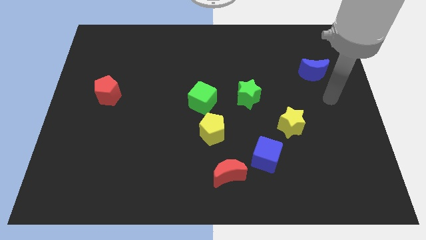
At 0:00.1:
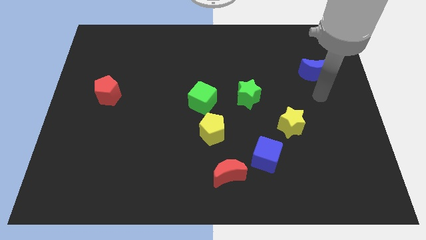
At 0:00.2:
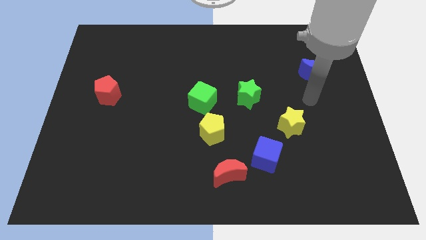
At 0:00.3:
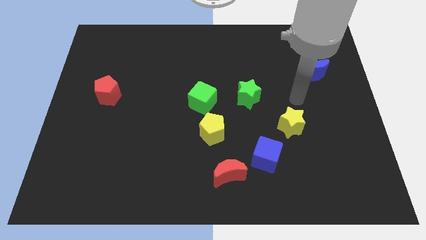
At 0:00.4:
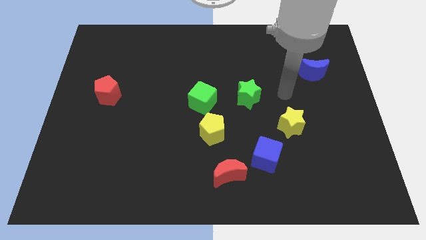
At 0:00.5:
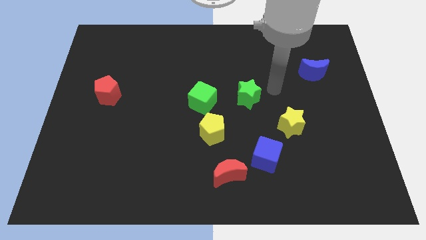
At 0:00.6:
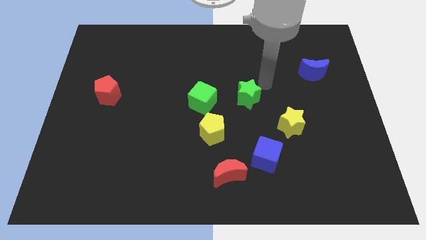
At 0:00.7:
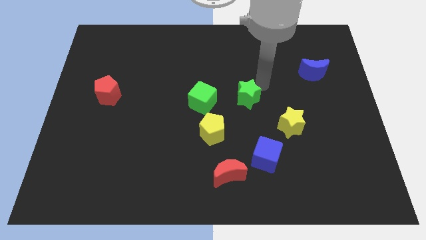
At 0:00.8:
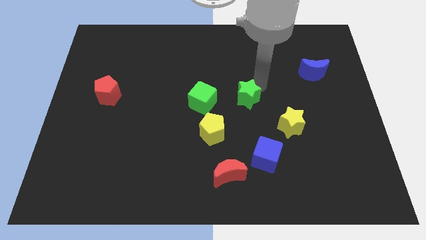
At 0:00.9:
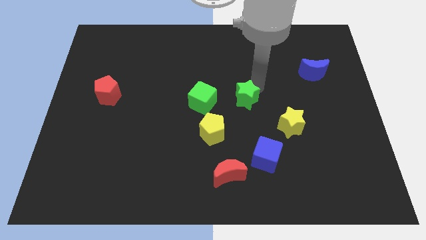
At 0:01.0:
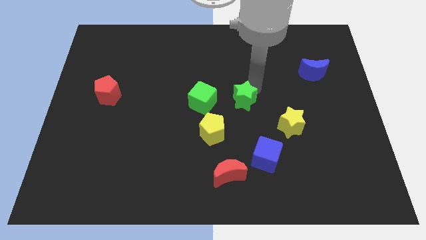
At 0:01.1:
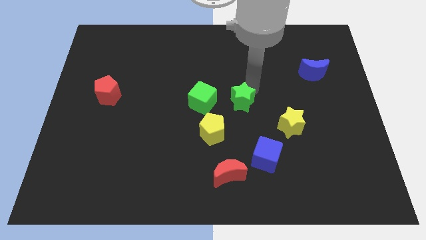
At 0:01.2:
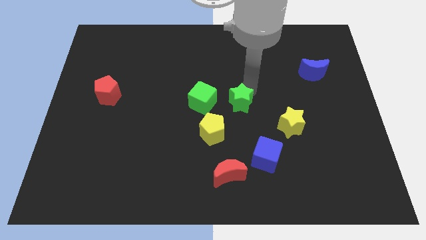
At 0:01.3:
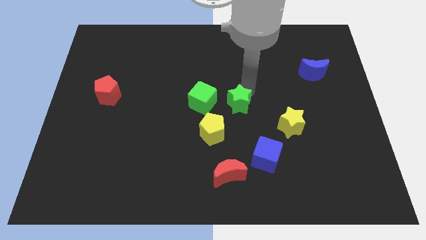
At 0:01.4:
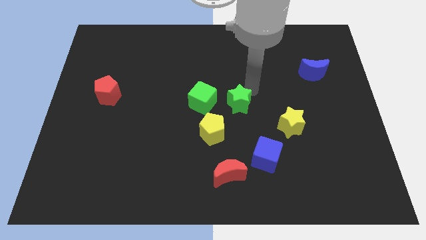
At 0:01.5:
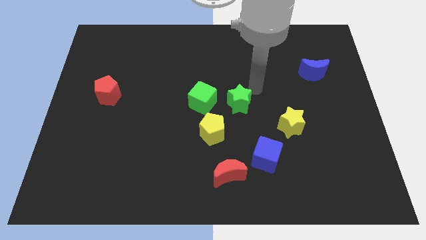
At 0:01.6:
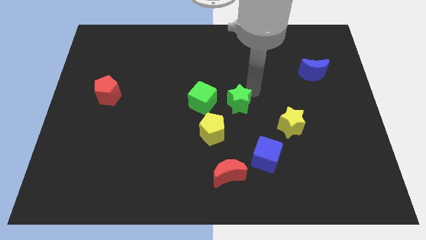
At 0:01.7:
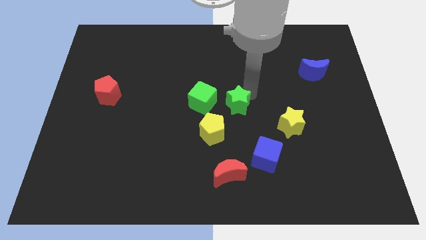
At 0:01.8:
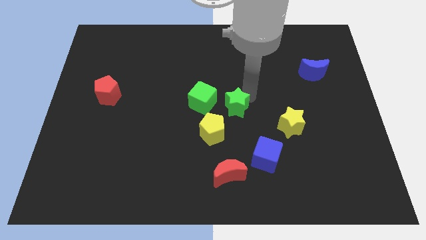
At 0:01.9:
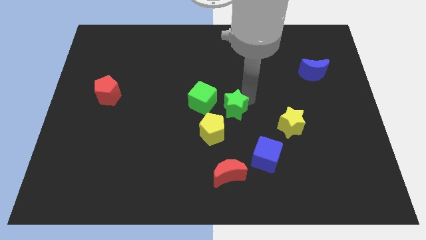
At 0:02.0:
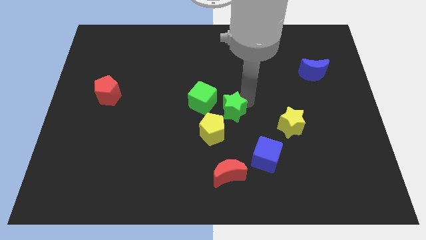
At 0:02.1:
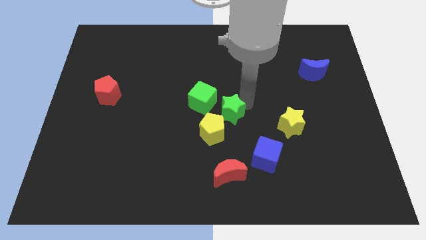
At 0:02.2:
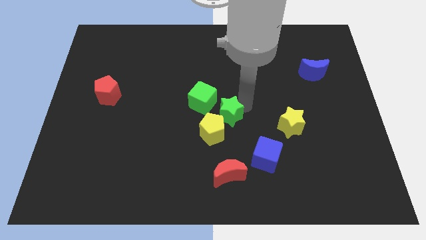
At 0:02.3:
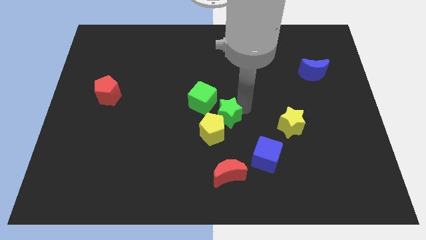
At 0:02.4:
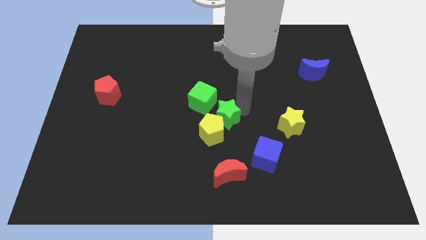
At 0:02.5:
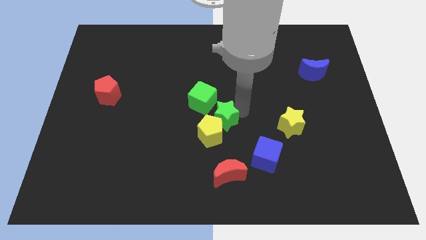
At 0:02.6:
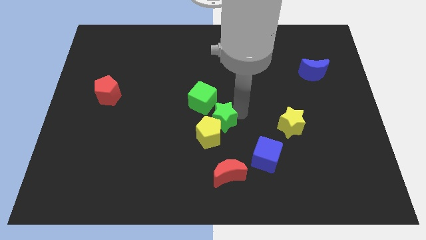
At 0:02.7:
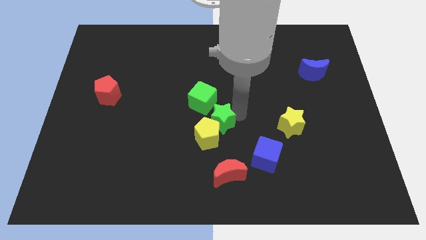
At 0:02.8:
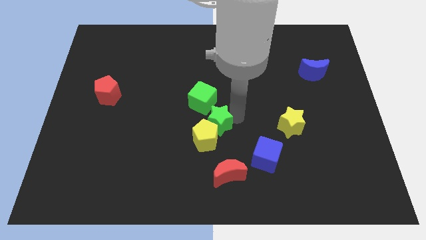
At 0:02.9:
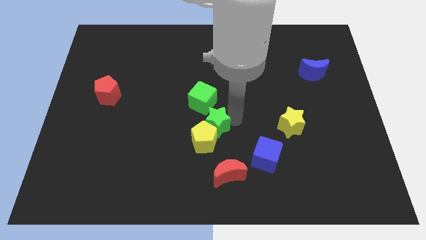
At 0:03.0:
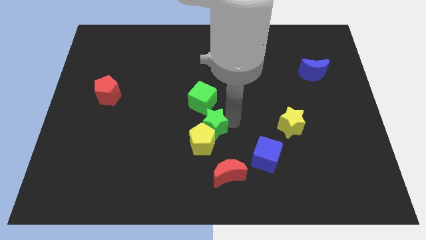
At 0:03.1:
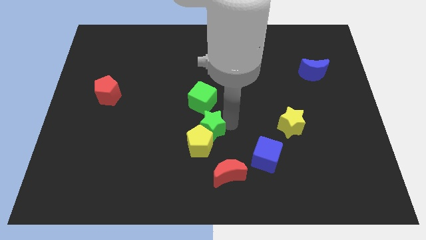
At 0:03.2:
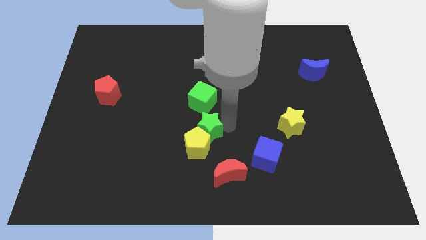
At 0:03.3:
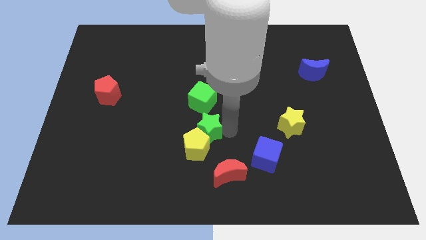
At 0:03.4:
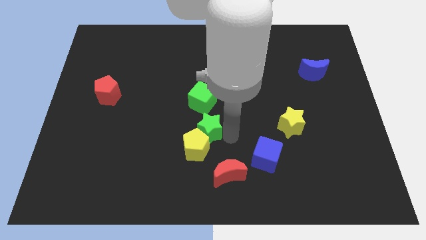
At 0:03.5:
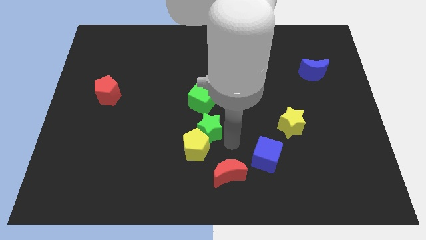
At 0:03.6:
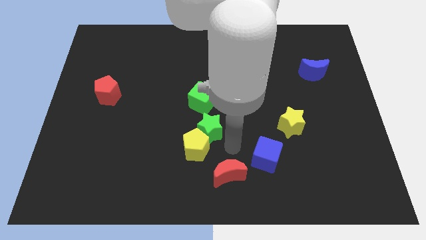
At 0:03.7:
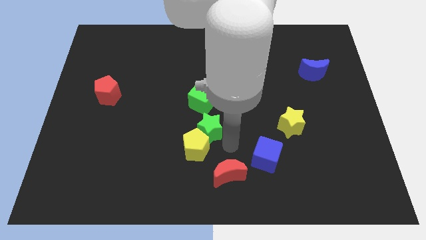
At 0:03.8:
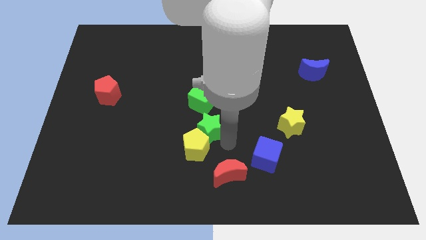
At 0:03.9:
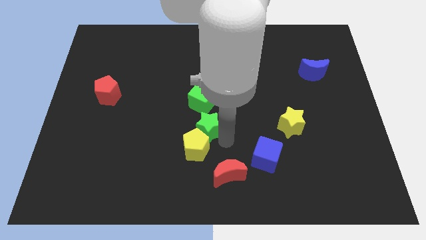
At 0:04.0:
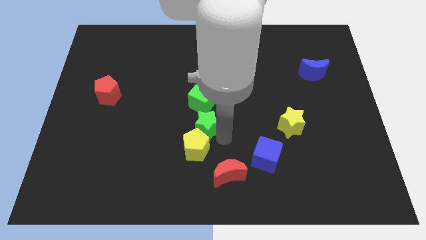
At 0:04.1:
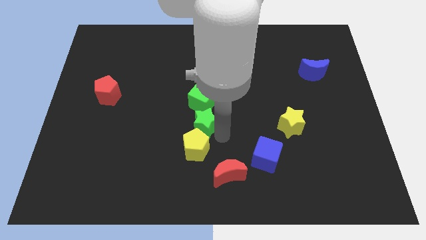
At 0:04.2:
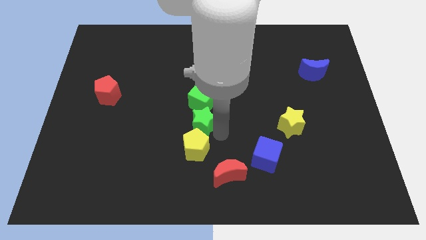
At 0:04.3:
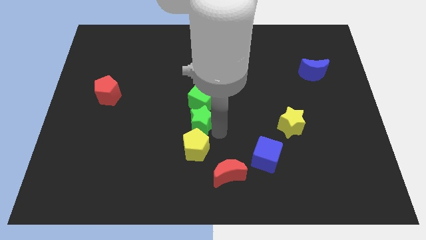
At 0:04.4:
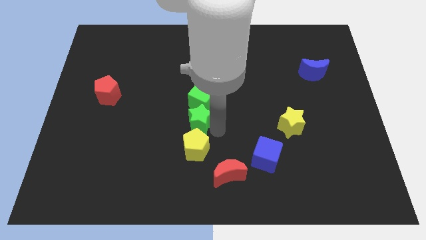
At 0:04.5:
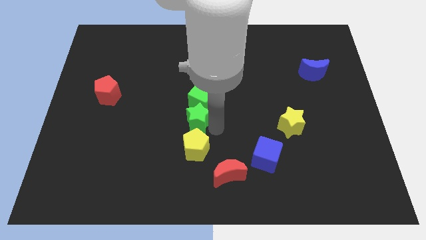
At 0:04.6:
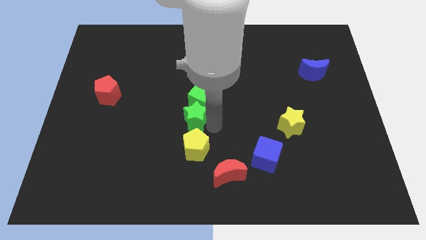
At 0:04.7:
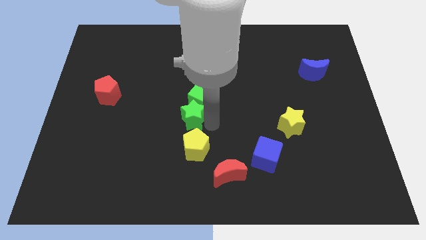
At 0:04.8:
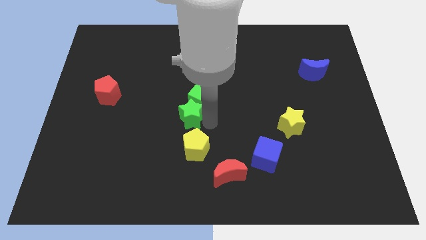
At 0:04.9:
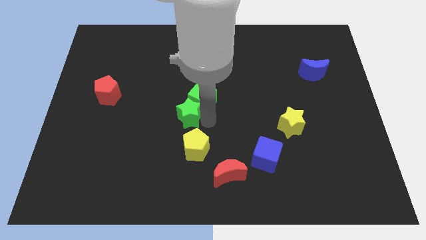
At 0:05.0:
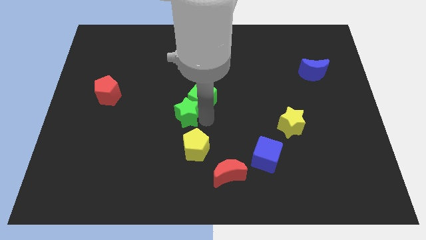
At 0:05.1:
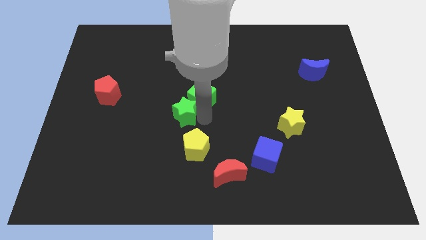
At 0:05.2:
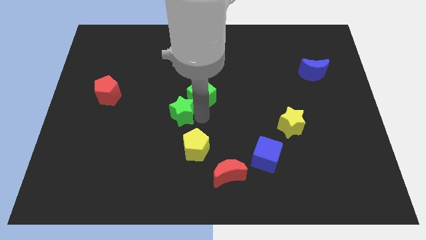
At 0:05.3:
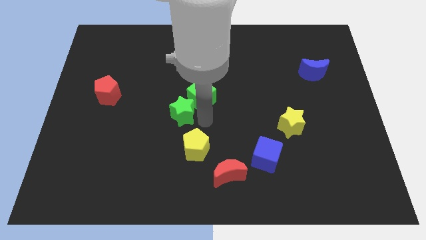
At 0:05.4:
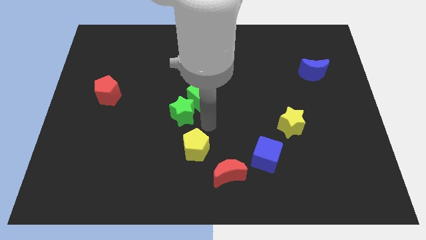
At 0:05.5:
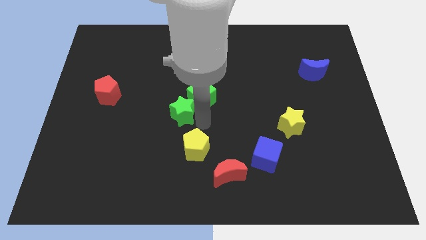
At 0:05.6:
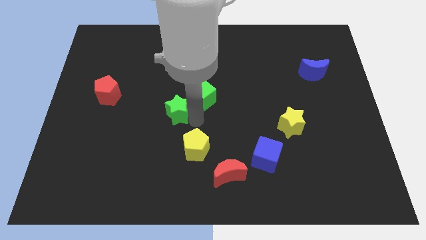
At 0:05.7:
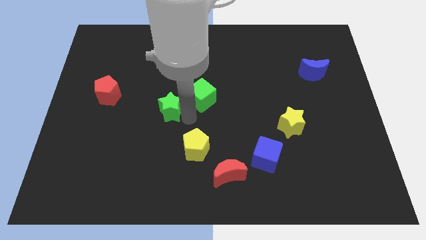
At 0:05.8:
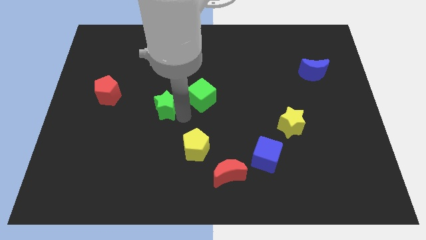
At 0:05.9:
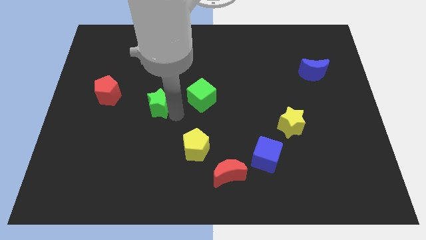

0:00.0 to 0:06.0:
move the green star to the right side of the red pentagon

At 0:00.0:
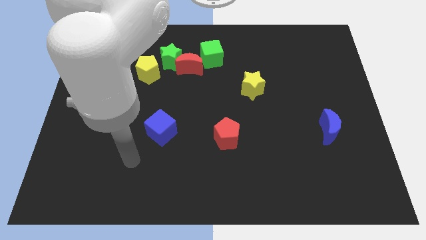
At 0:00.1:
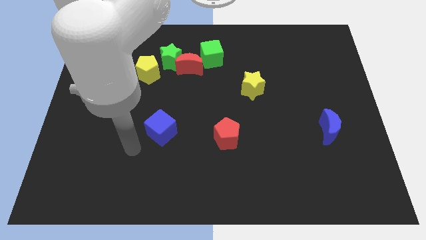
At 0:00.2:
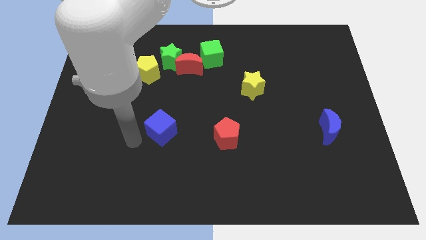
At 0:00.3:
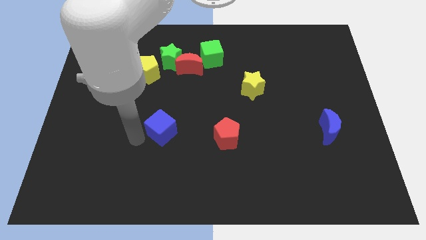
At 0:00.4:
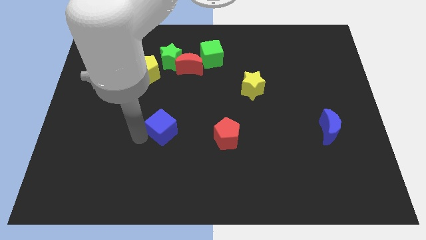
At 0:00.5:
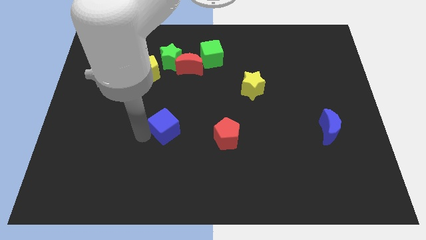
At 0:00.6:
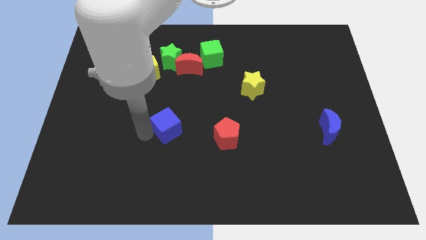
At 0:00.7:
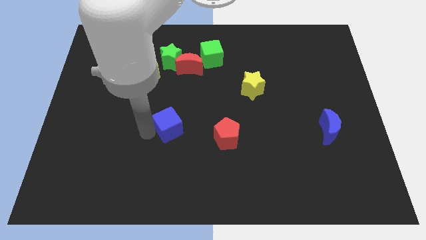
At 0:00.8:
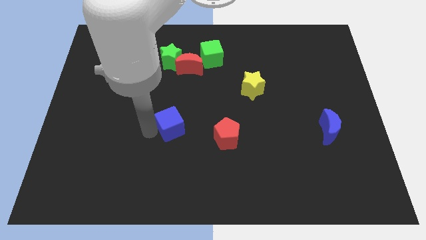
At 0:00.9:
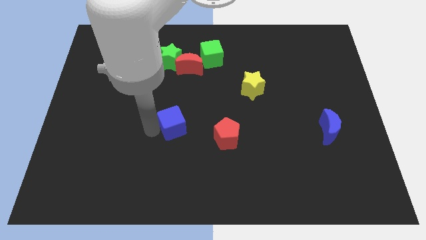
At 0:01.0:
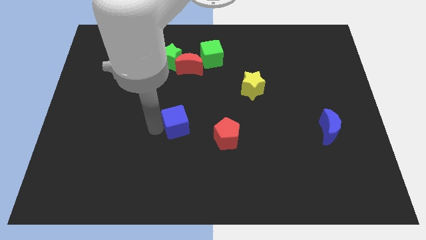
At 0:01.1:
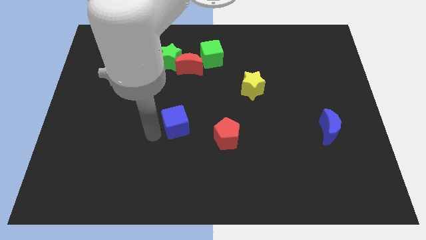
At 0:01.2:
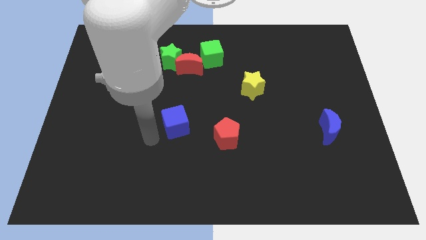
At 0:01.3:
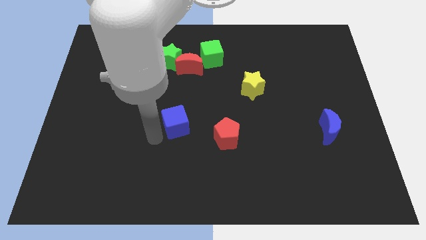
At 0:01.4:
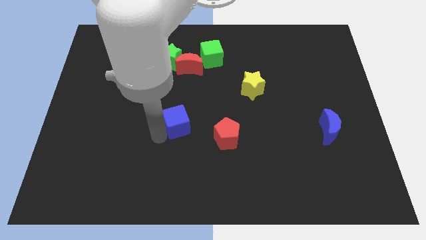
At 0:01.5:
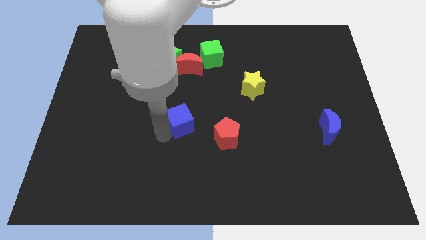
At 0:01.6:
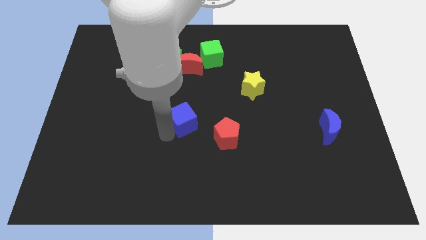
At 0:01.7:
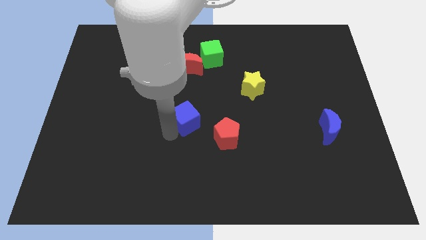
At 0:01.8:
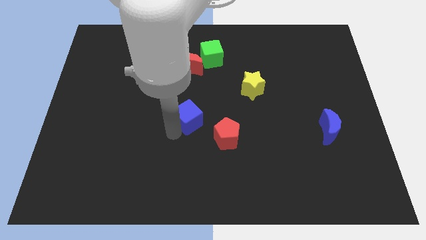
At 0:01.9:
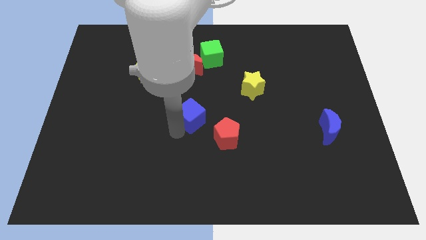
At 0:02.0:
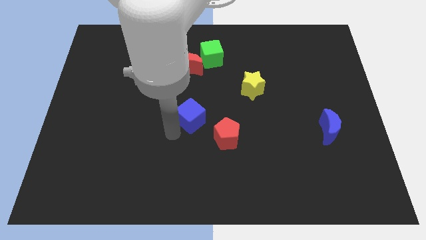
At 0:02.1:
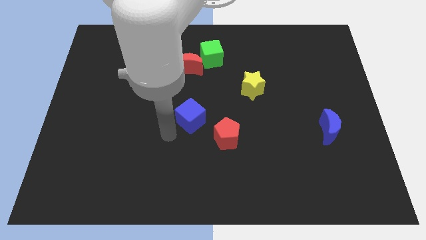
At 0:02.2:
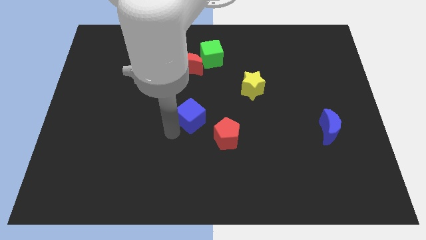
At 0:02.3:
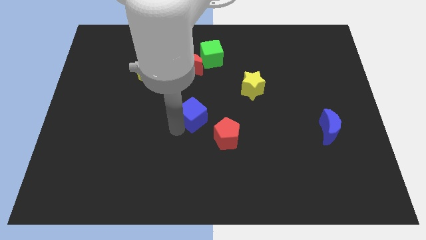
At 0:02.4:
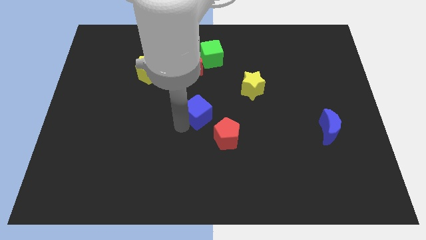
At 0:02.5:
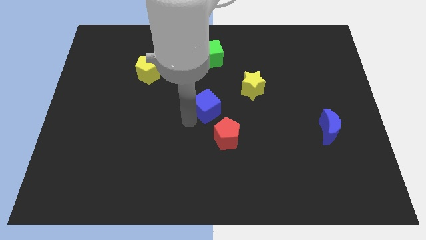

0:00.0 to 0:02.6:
slide the blue cube above the red pentagon
